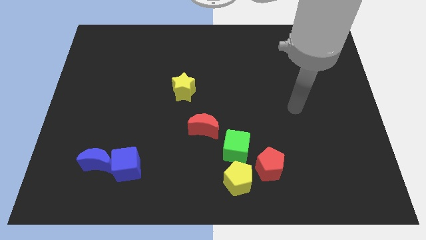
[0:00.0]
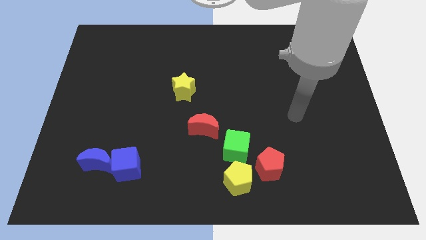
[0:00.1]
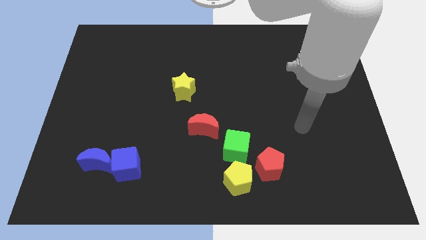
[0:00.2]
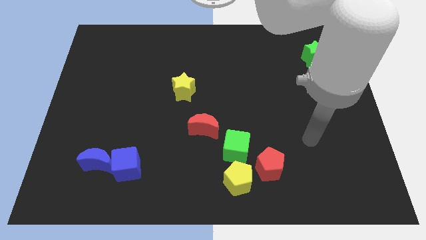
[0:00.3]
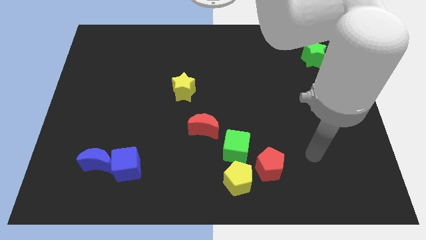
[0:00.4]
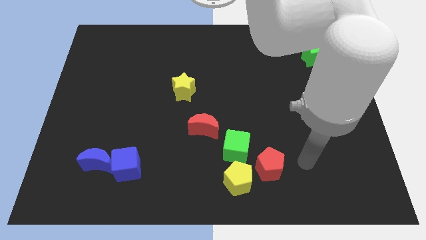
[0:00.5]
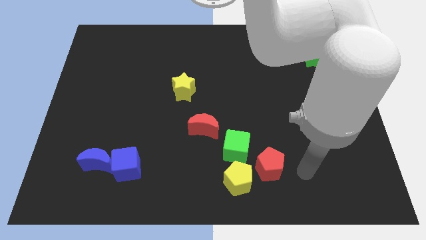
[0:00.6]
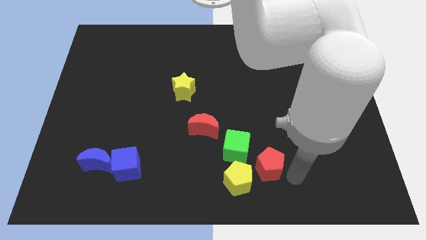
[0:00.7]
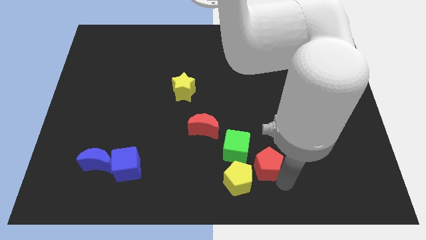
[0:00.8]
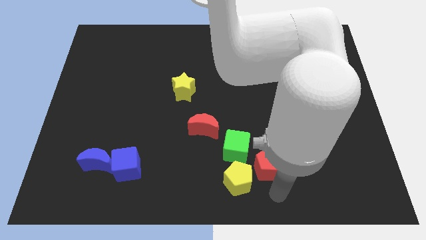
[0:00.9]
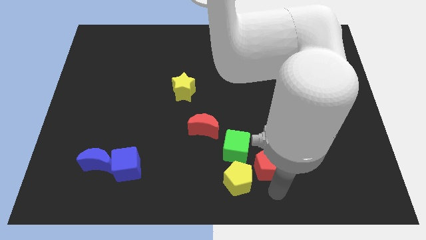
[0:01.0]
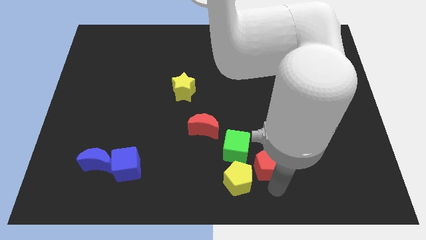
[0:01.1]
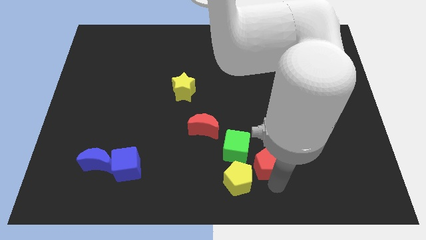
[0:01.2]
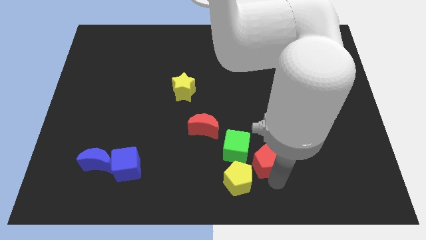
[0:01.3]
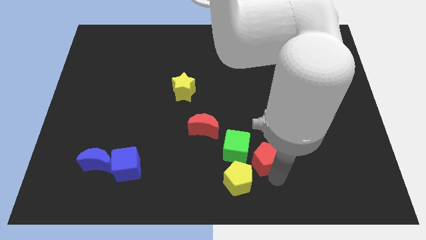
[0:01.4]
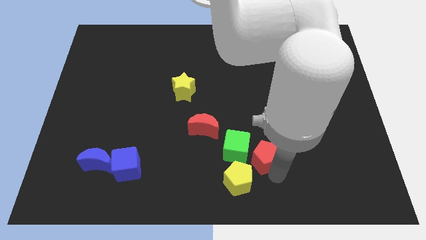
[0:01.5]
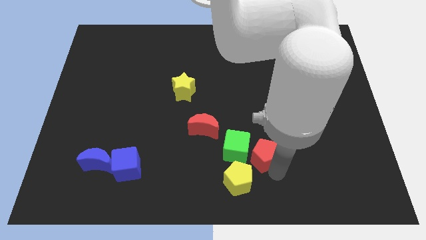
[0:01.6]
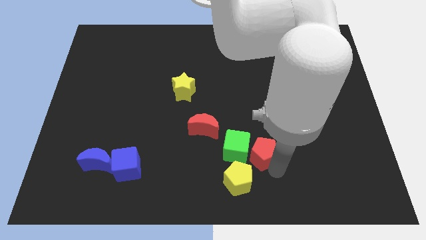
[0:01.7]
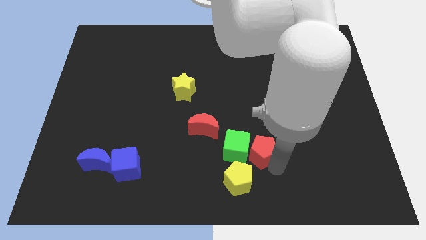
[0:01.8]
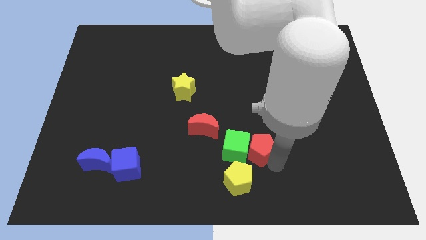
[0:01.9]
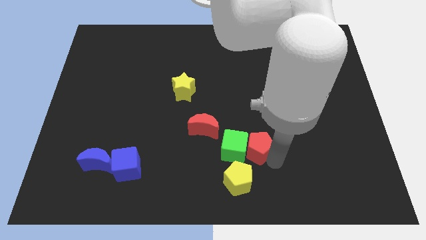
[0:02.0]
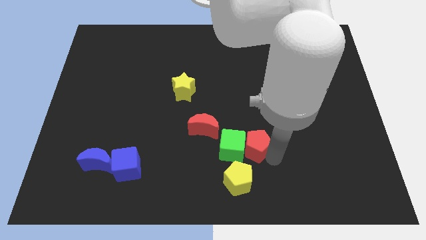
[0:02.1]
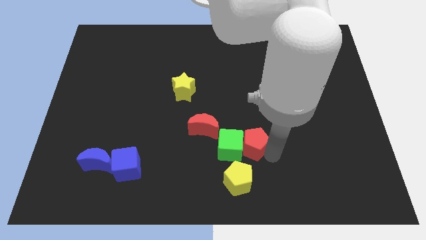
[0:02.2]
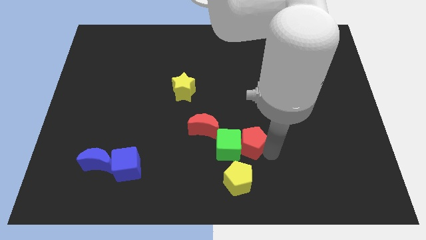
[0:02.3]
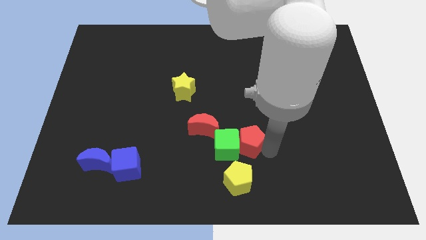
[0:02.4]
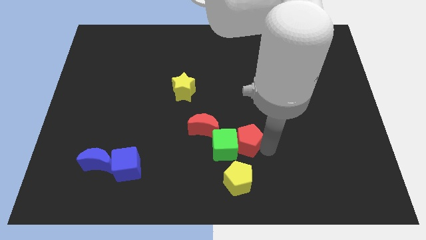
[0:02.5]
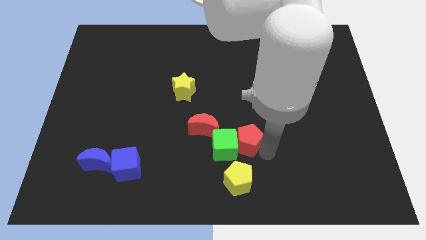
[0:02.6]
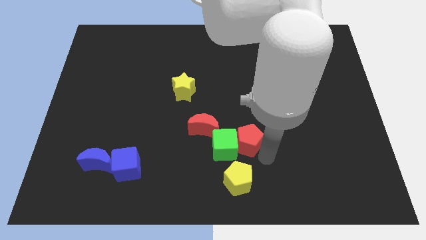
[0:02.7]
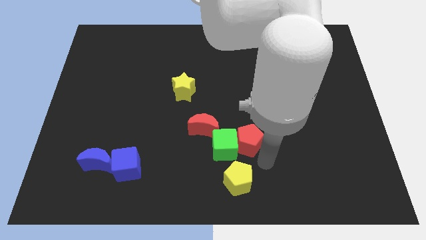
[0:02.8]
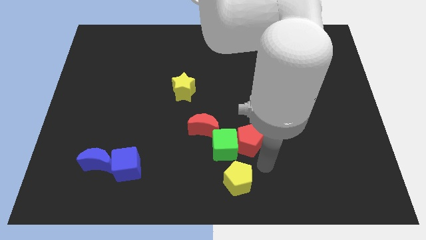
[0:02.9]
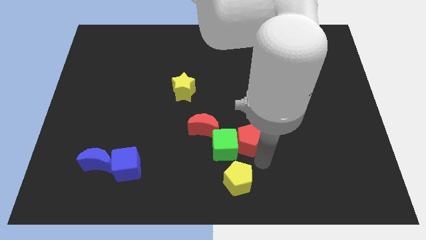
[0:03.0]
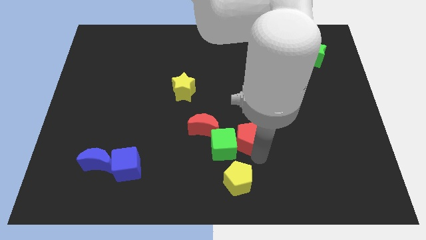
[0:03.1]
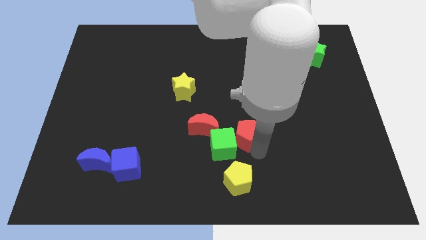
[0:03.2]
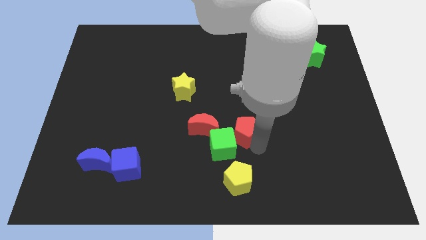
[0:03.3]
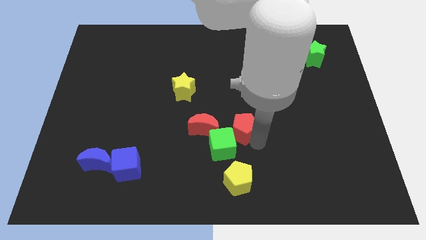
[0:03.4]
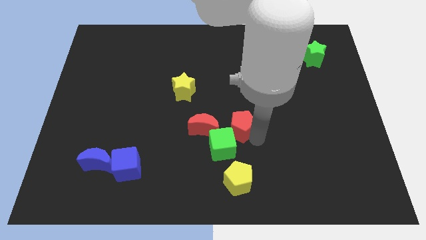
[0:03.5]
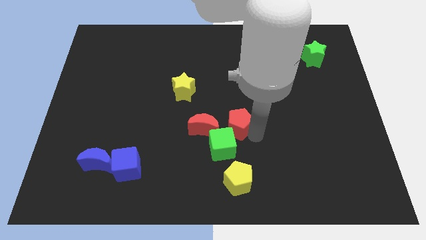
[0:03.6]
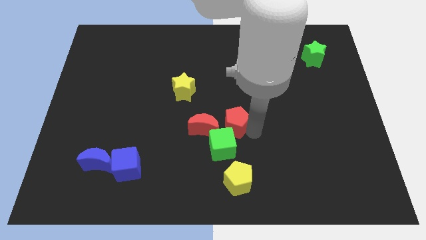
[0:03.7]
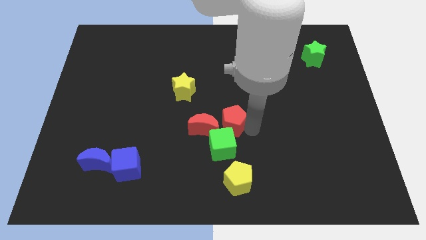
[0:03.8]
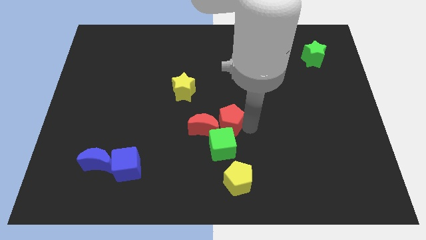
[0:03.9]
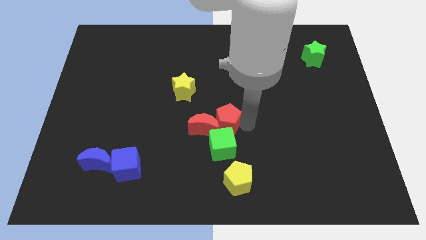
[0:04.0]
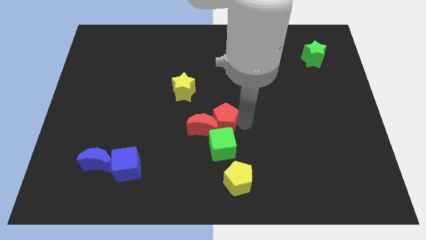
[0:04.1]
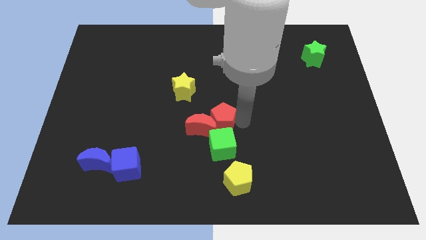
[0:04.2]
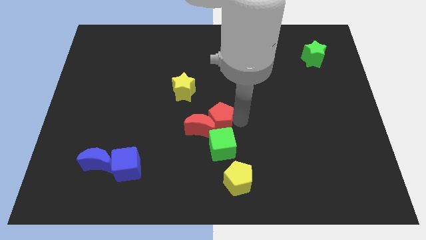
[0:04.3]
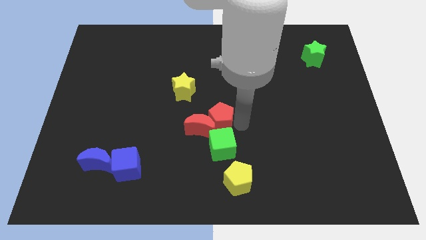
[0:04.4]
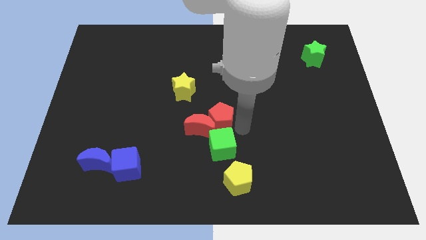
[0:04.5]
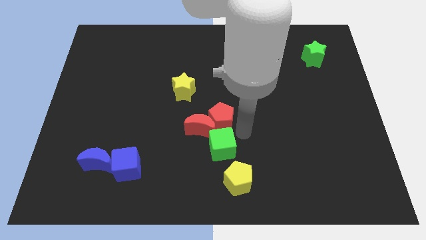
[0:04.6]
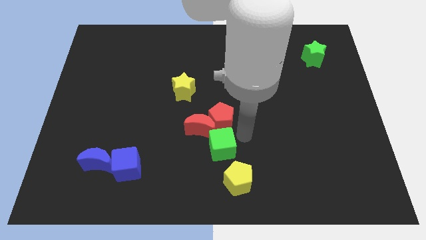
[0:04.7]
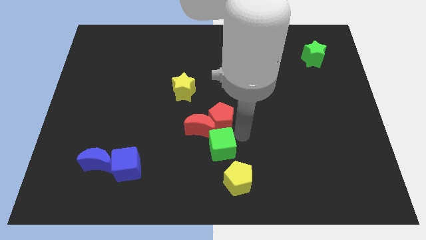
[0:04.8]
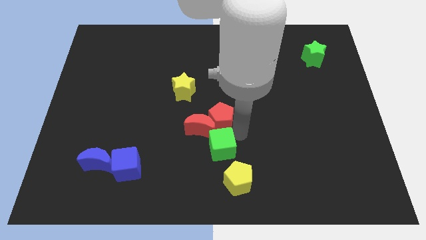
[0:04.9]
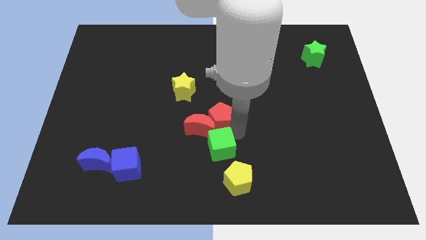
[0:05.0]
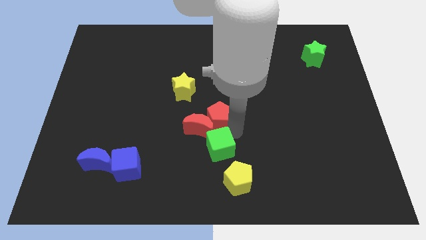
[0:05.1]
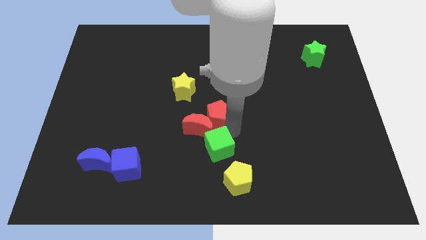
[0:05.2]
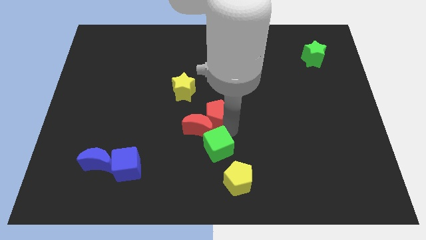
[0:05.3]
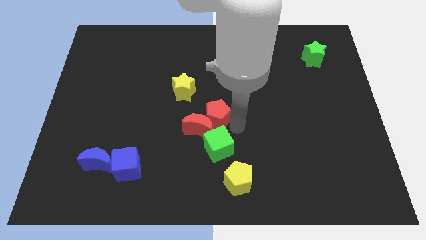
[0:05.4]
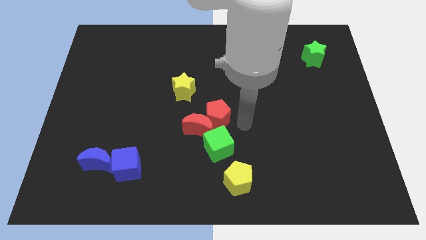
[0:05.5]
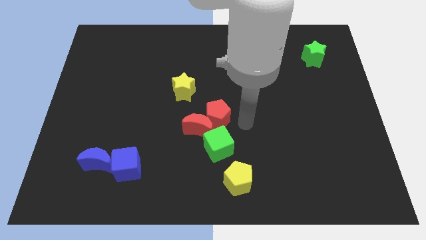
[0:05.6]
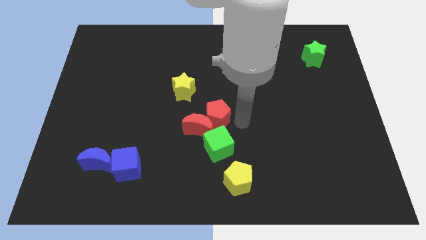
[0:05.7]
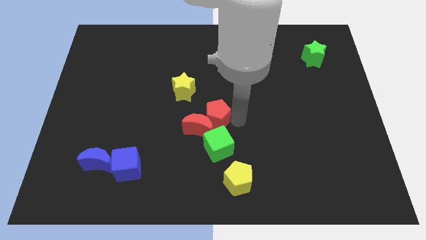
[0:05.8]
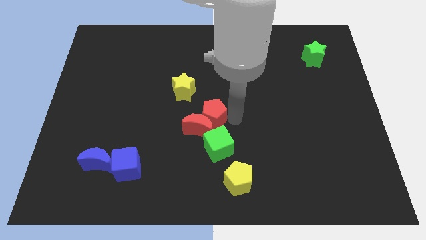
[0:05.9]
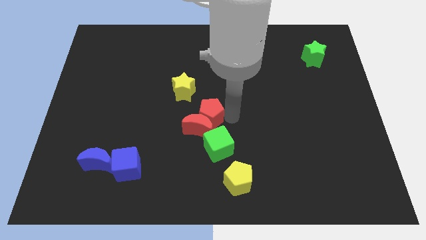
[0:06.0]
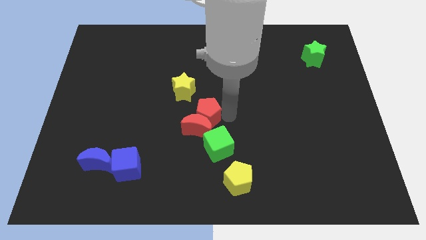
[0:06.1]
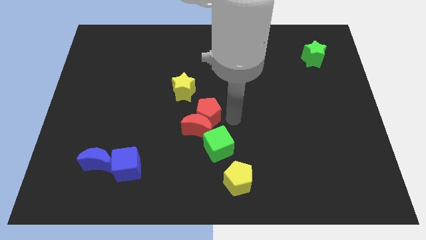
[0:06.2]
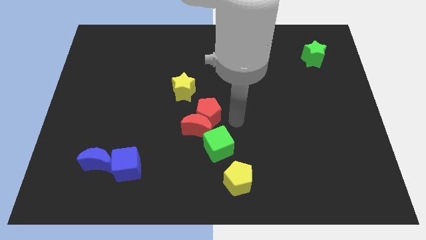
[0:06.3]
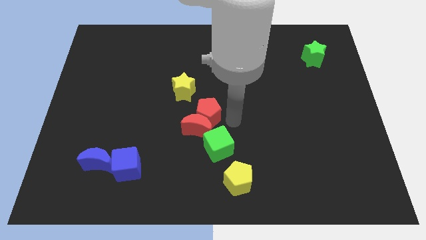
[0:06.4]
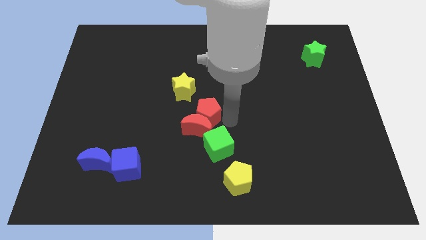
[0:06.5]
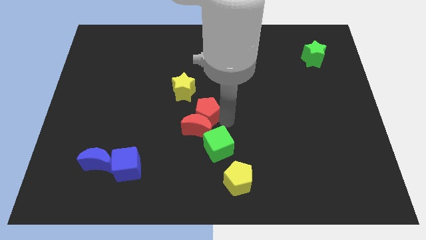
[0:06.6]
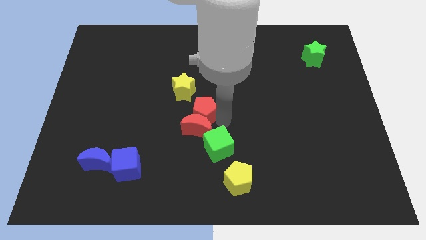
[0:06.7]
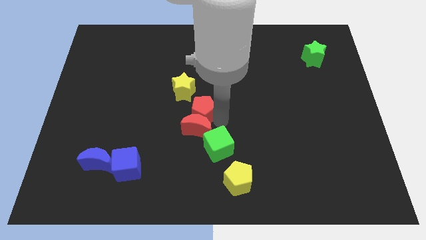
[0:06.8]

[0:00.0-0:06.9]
push the red pentagon diagonally up and left

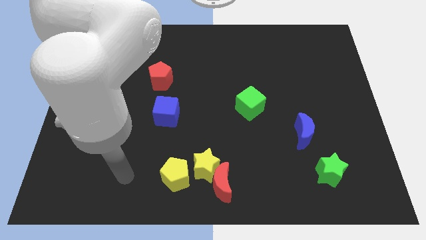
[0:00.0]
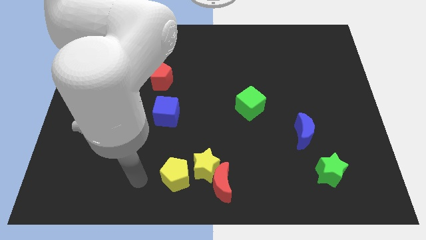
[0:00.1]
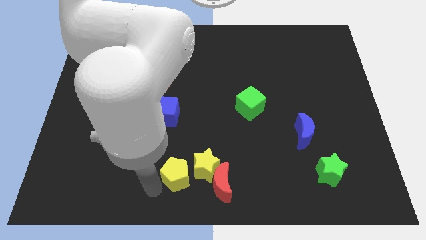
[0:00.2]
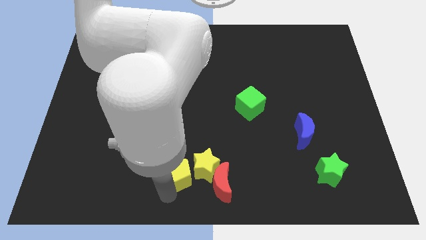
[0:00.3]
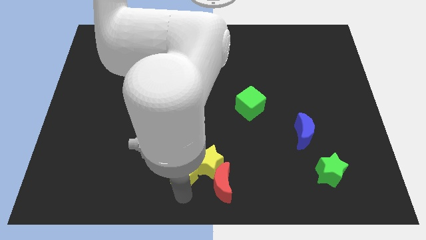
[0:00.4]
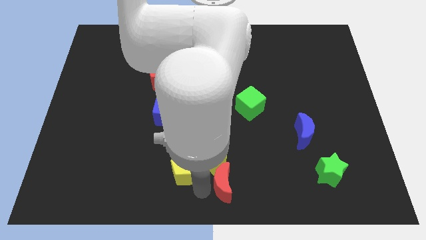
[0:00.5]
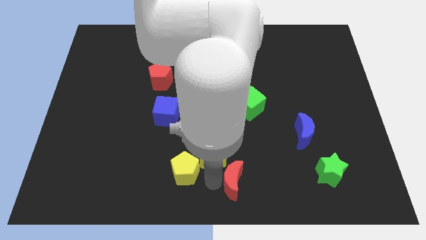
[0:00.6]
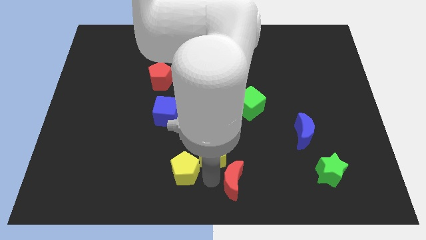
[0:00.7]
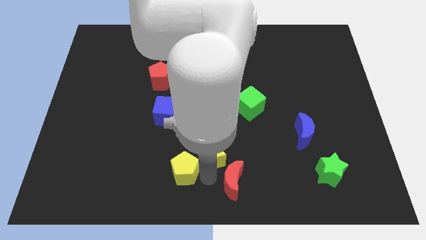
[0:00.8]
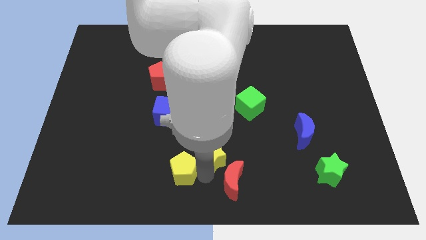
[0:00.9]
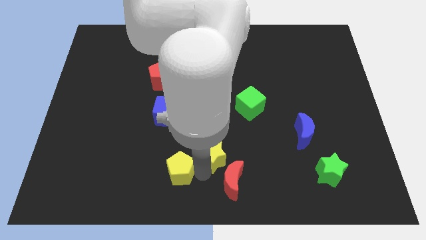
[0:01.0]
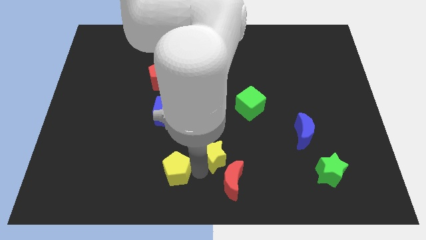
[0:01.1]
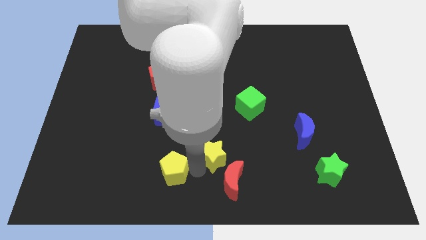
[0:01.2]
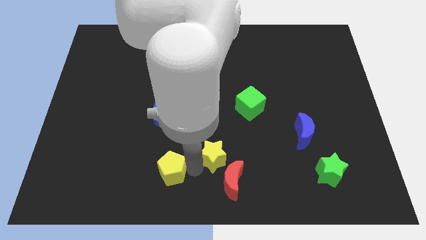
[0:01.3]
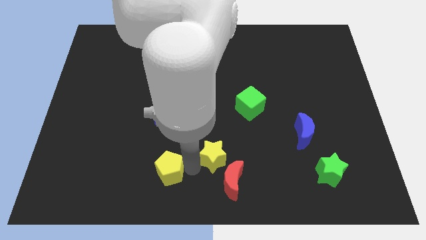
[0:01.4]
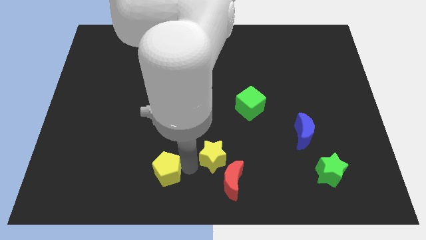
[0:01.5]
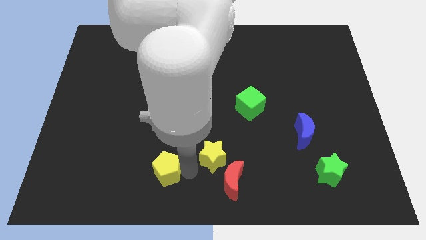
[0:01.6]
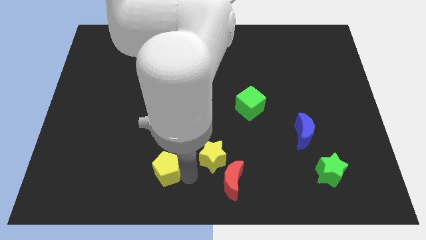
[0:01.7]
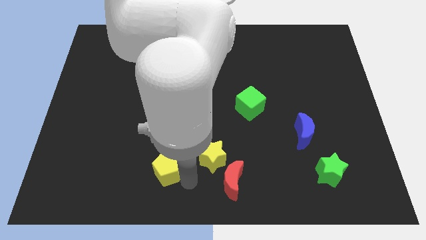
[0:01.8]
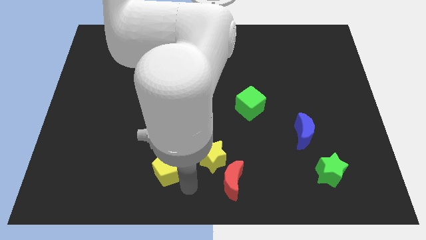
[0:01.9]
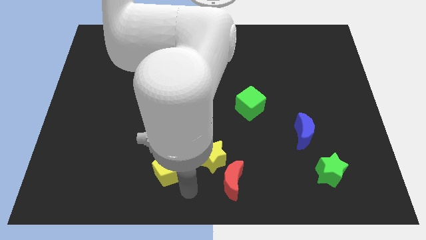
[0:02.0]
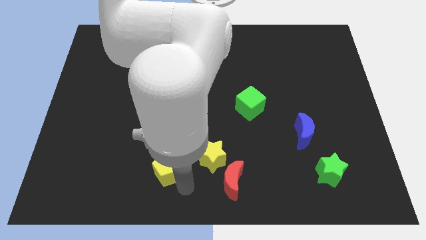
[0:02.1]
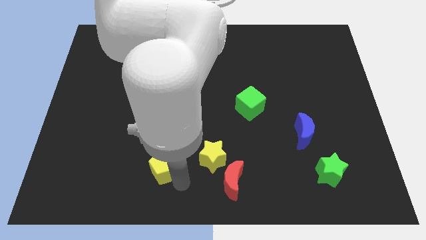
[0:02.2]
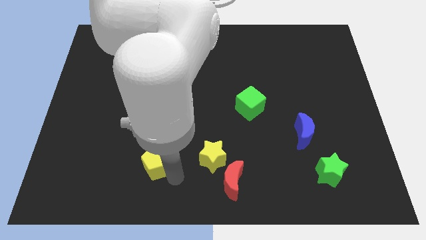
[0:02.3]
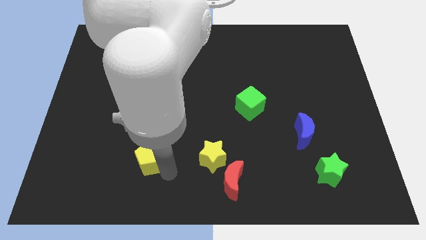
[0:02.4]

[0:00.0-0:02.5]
move the yellow pentagon diagonally up and left somewhat
